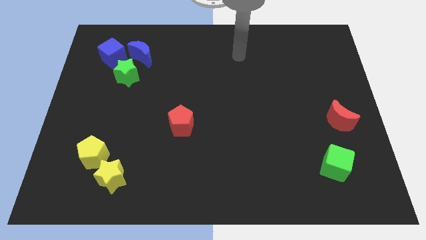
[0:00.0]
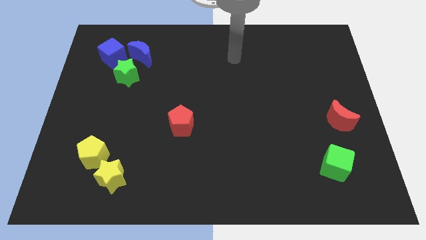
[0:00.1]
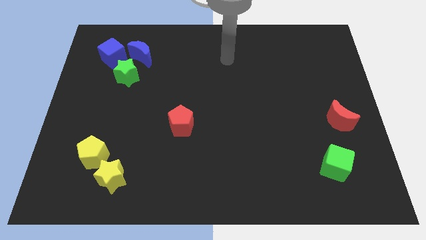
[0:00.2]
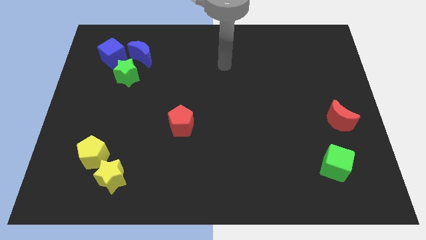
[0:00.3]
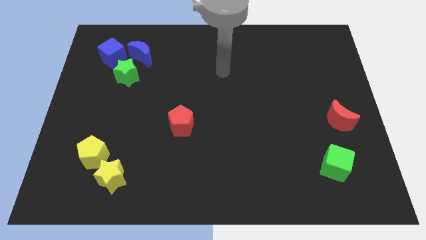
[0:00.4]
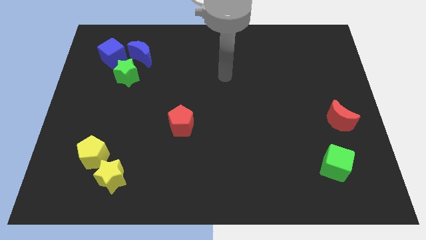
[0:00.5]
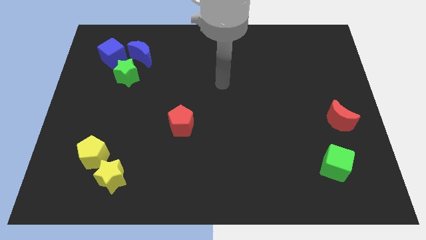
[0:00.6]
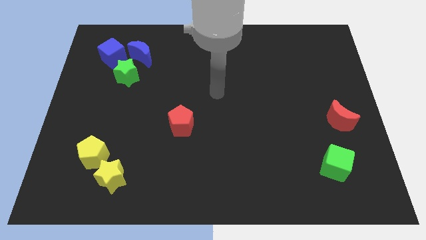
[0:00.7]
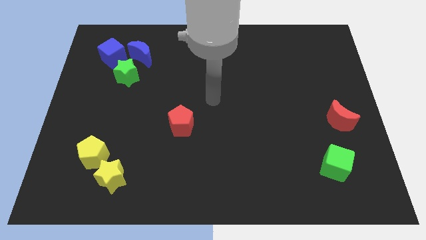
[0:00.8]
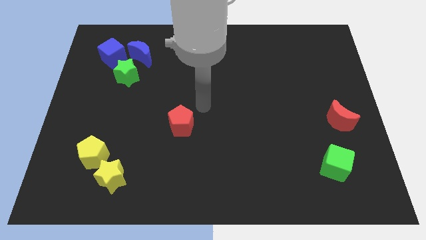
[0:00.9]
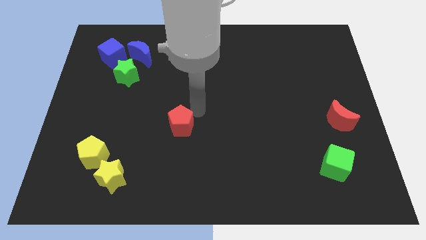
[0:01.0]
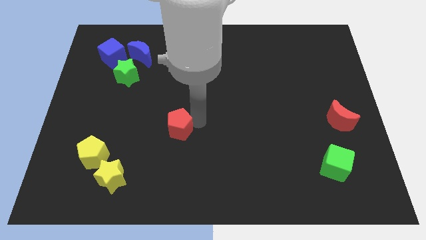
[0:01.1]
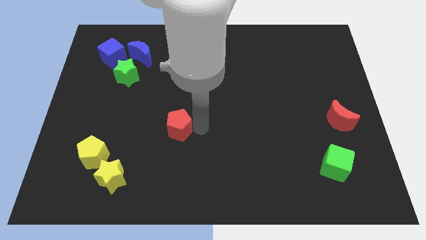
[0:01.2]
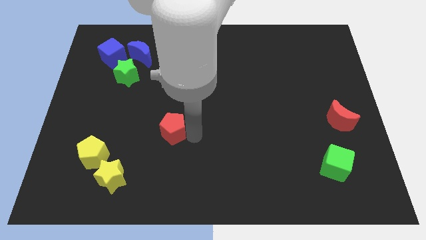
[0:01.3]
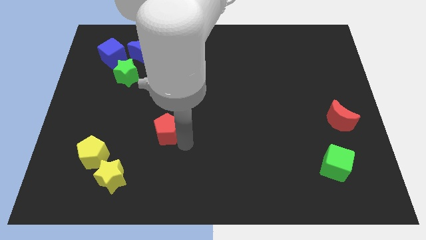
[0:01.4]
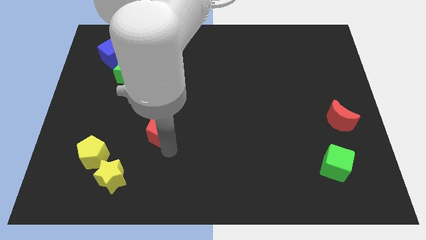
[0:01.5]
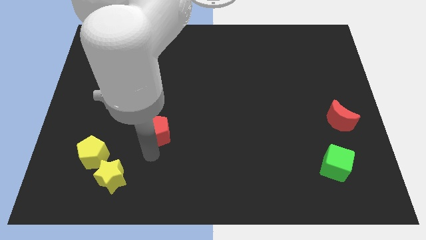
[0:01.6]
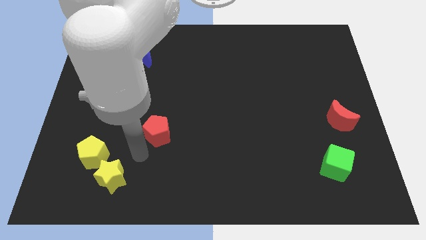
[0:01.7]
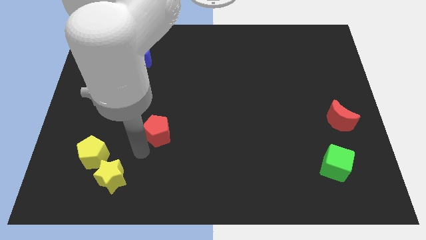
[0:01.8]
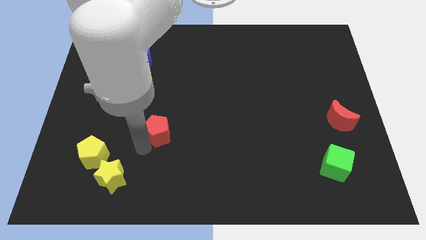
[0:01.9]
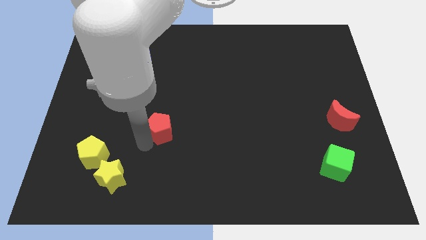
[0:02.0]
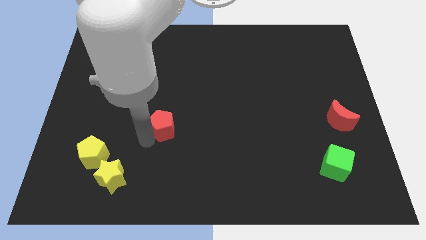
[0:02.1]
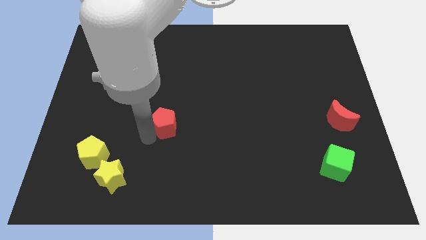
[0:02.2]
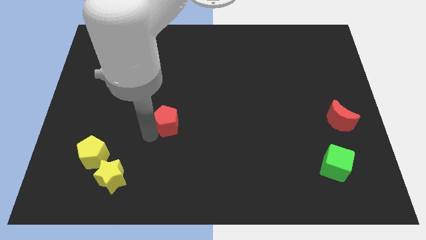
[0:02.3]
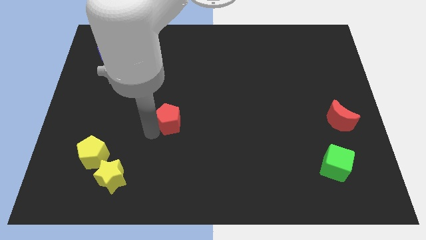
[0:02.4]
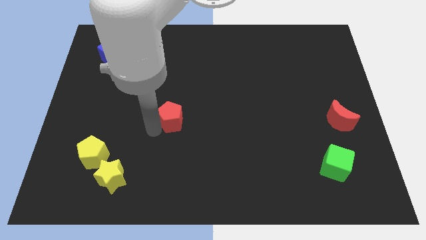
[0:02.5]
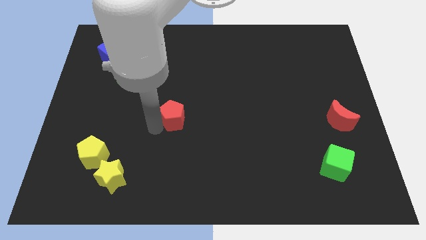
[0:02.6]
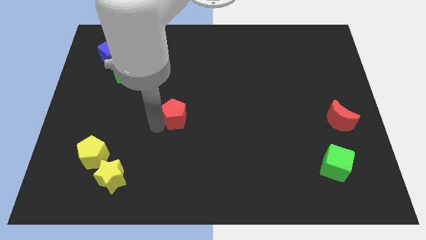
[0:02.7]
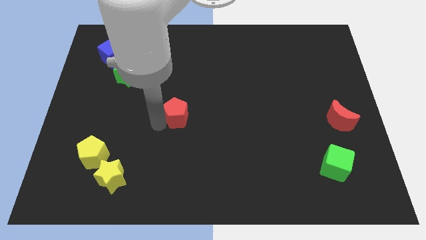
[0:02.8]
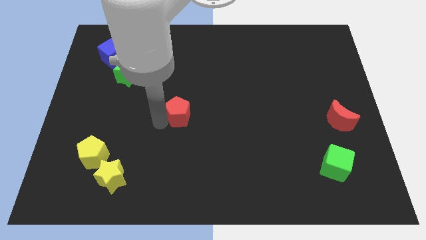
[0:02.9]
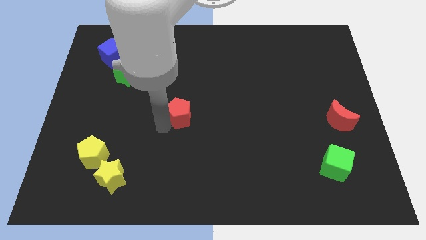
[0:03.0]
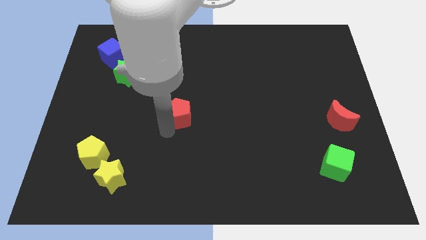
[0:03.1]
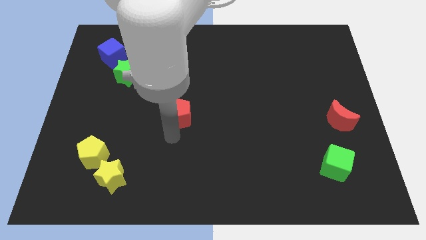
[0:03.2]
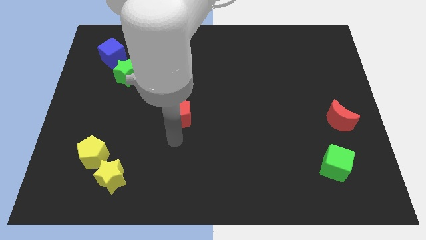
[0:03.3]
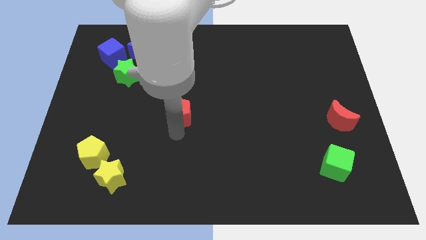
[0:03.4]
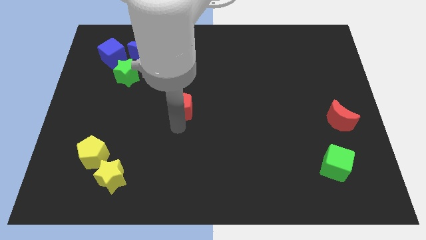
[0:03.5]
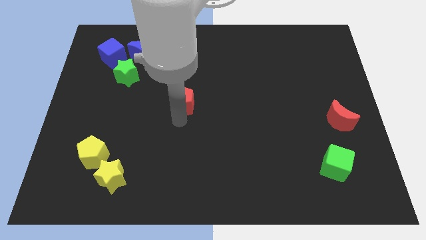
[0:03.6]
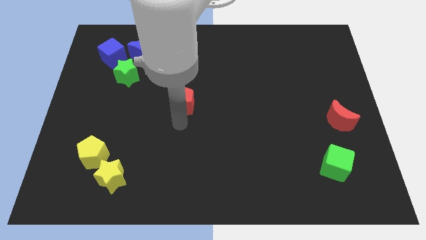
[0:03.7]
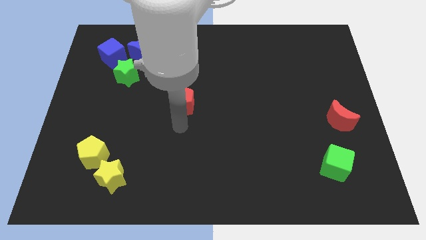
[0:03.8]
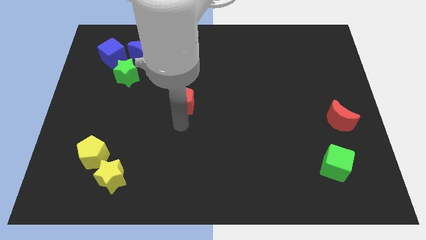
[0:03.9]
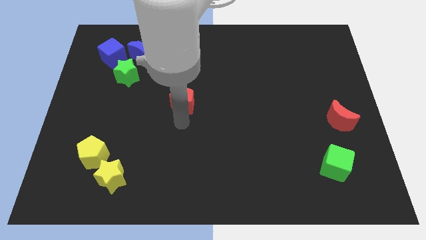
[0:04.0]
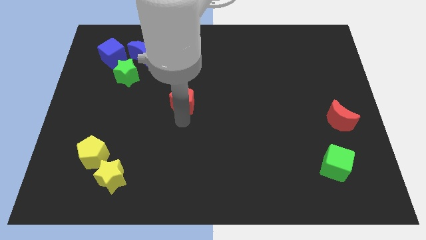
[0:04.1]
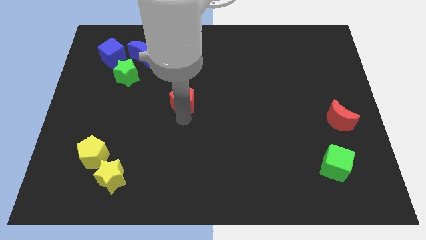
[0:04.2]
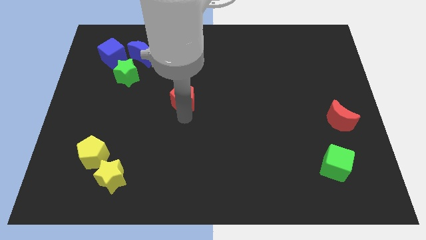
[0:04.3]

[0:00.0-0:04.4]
slightly push the red pentagon upwards

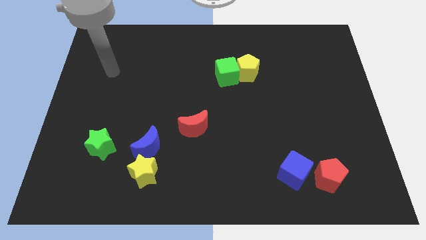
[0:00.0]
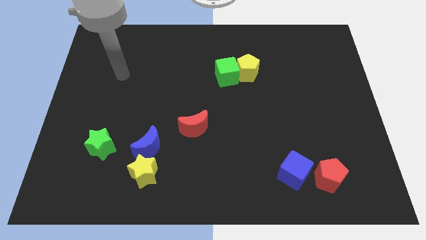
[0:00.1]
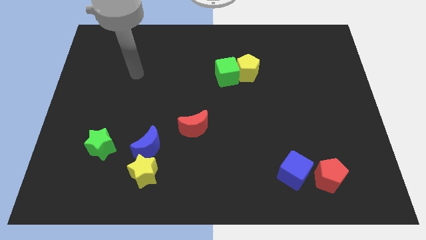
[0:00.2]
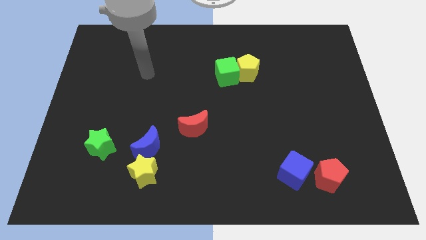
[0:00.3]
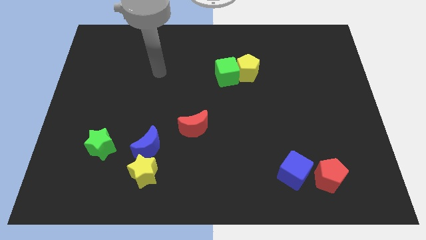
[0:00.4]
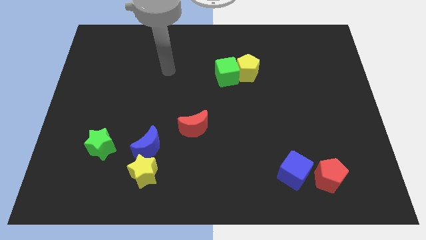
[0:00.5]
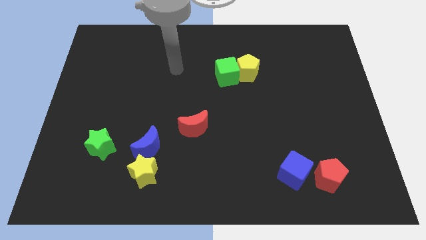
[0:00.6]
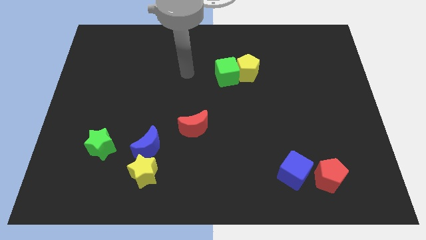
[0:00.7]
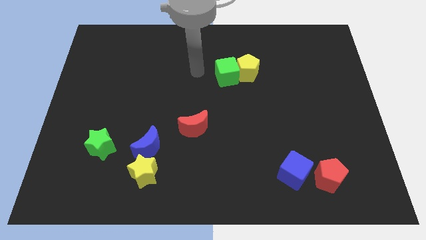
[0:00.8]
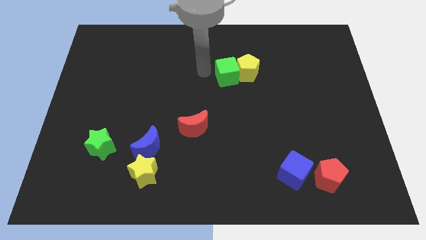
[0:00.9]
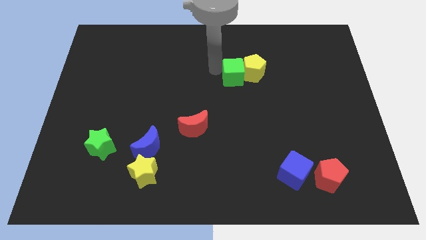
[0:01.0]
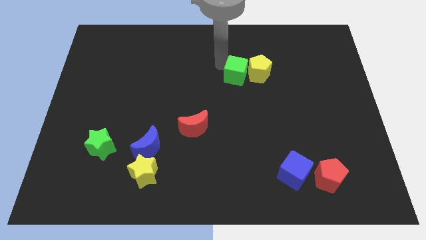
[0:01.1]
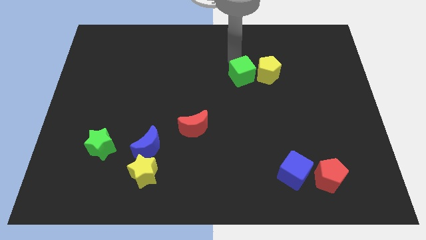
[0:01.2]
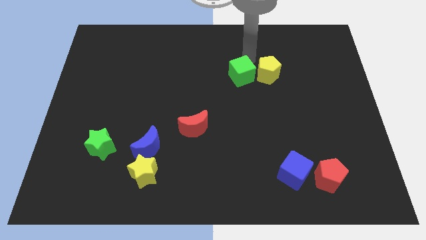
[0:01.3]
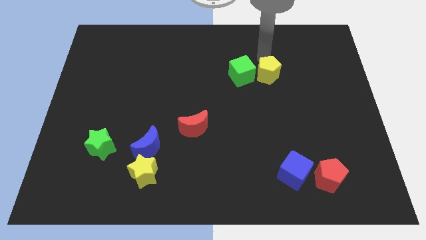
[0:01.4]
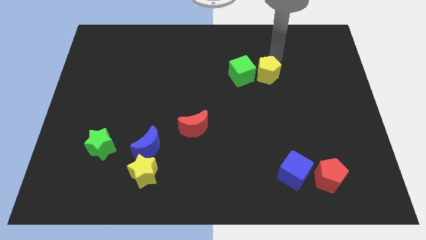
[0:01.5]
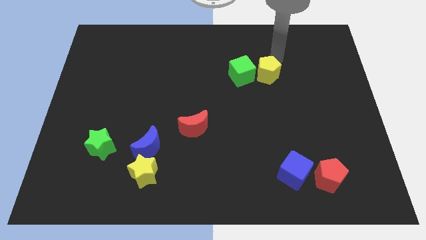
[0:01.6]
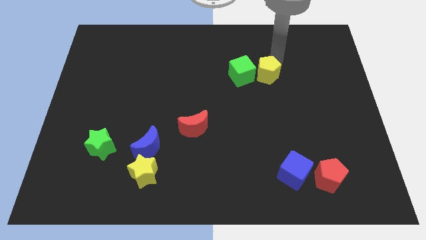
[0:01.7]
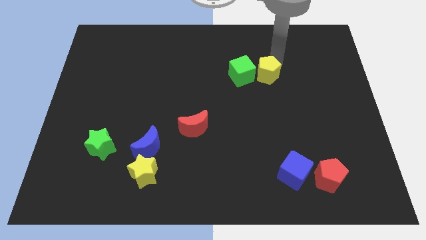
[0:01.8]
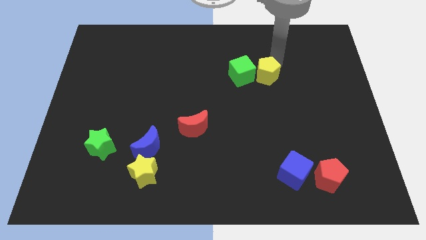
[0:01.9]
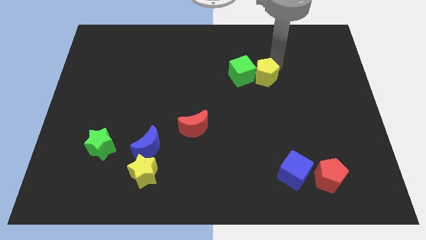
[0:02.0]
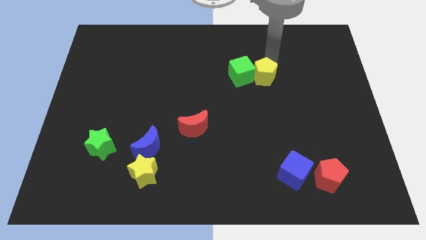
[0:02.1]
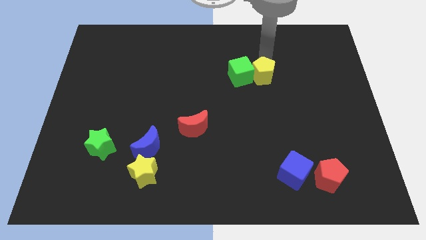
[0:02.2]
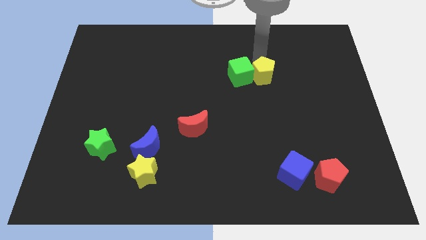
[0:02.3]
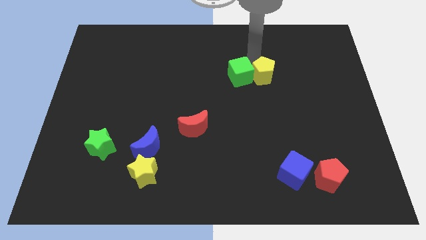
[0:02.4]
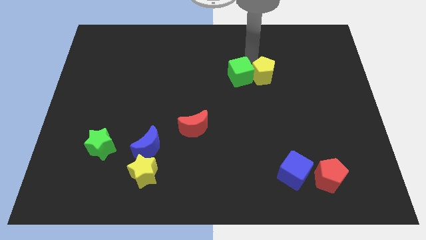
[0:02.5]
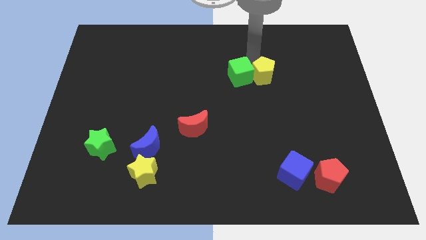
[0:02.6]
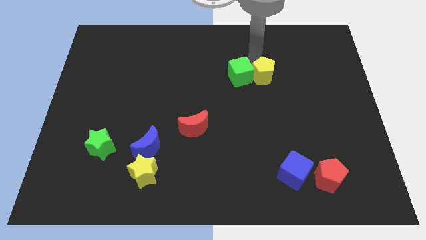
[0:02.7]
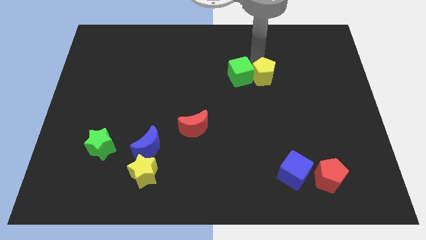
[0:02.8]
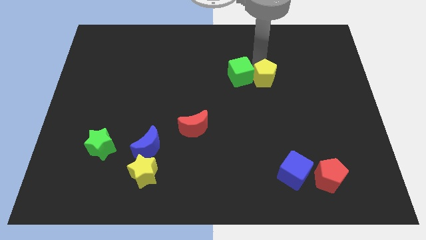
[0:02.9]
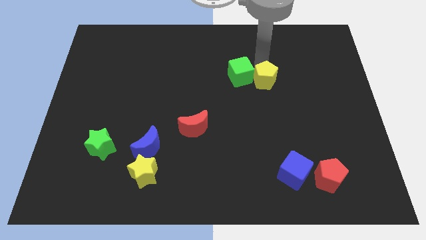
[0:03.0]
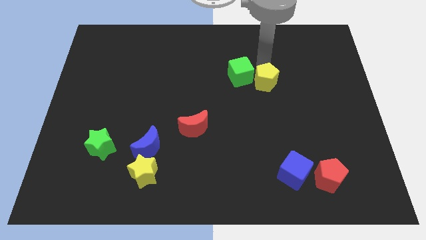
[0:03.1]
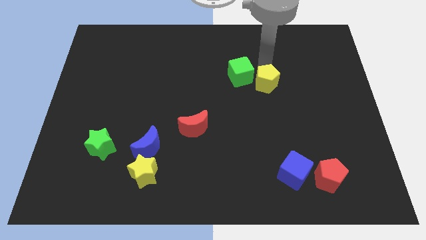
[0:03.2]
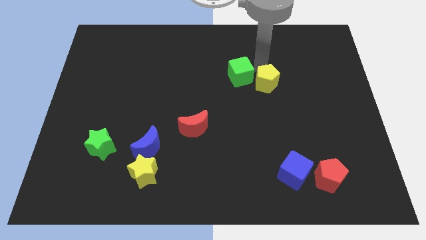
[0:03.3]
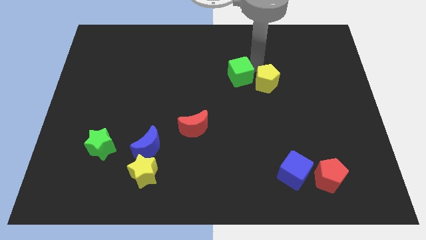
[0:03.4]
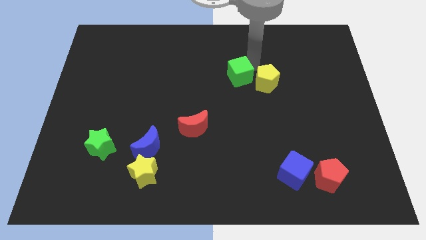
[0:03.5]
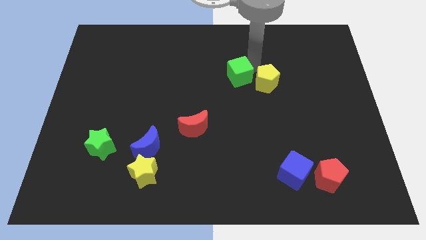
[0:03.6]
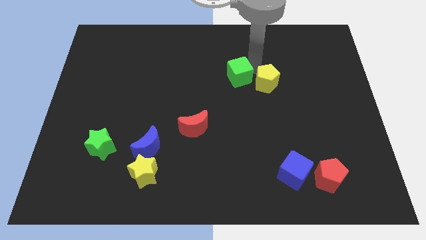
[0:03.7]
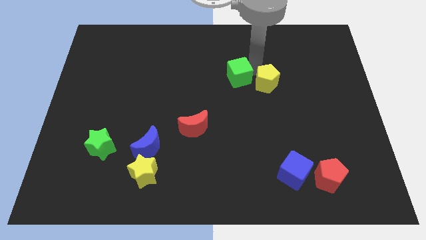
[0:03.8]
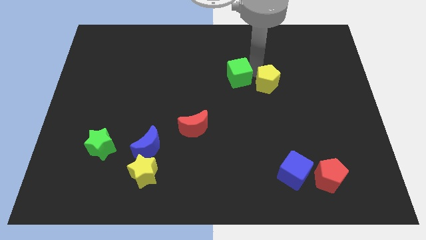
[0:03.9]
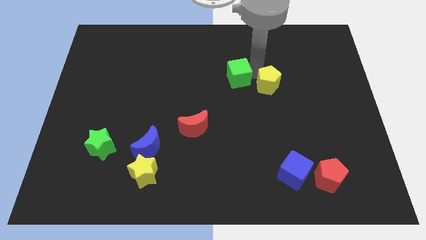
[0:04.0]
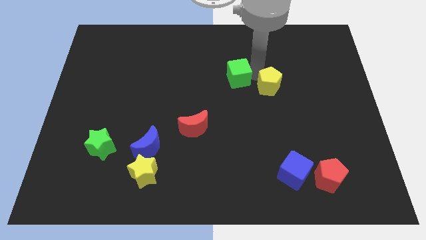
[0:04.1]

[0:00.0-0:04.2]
slightly slide the yellow pentagon down and right
